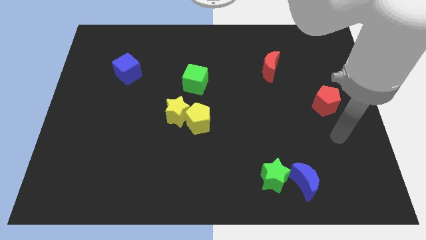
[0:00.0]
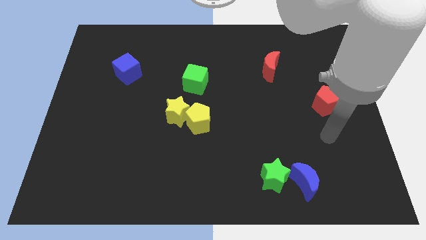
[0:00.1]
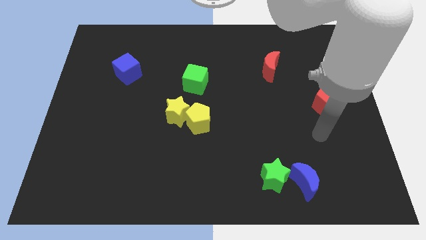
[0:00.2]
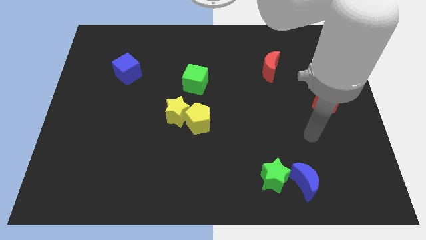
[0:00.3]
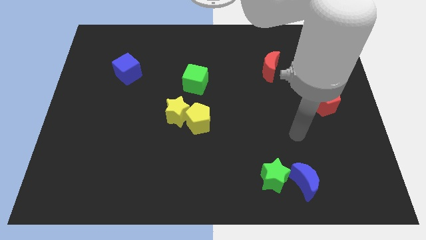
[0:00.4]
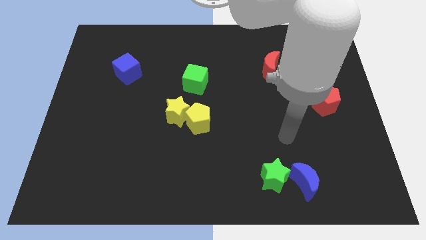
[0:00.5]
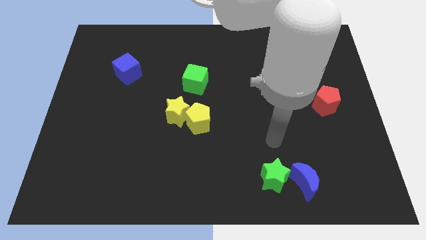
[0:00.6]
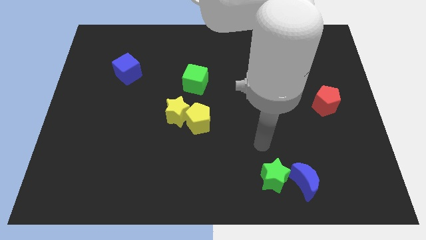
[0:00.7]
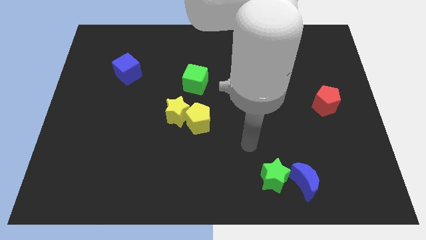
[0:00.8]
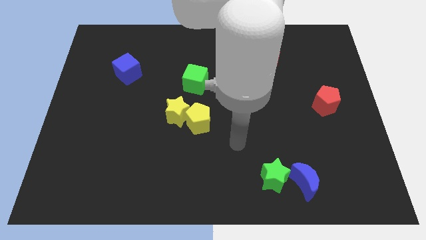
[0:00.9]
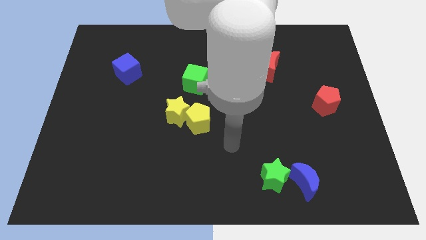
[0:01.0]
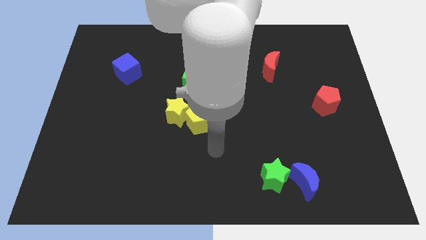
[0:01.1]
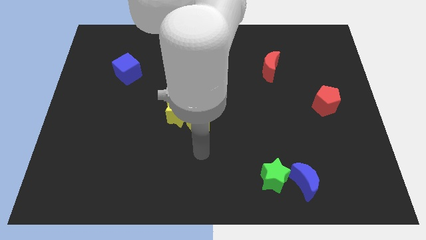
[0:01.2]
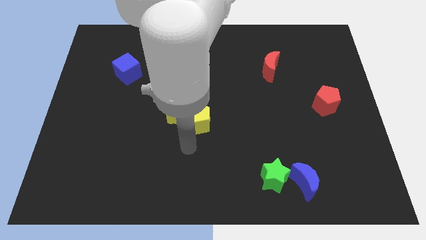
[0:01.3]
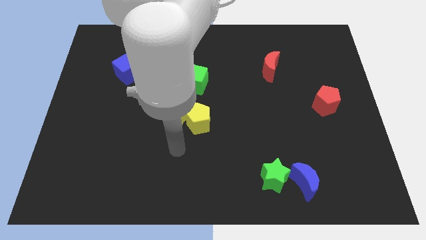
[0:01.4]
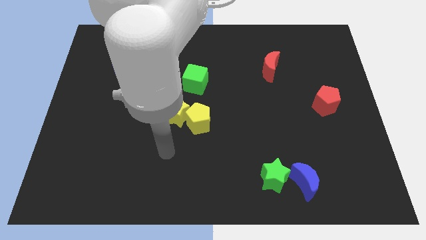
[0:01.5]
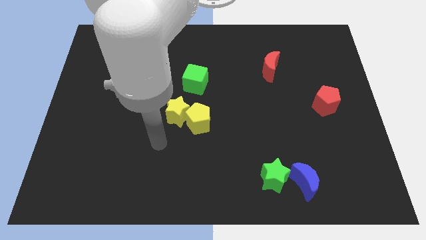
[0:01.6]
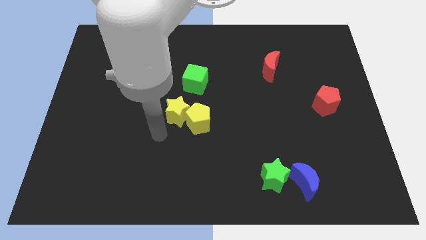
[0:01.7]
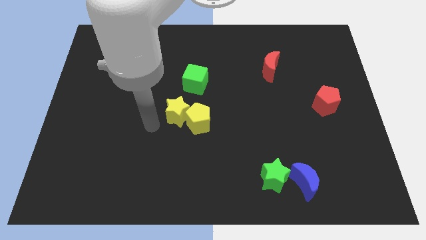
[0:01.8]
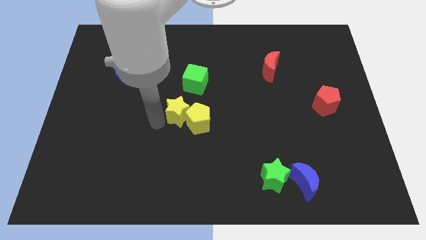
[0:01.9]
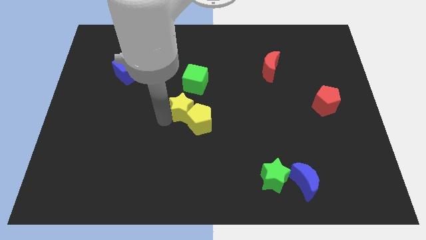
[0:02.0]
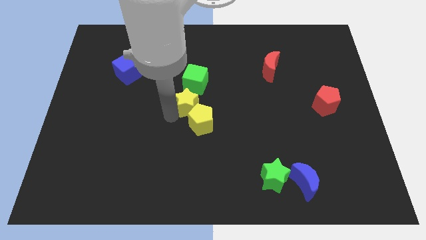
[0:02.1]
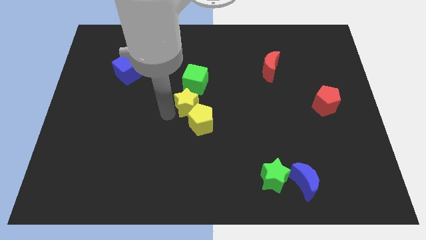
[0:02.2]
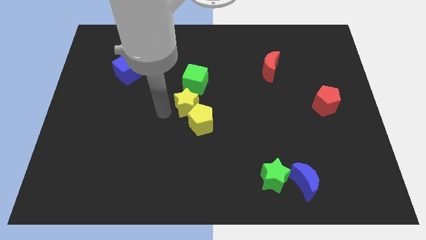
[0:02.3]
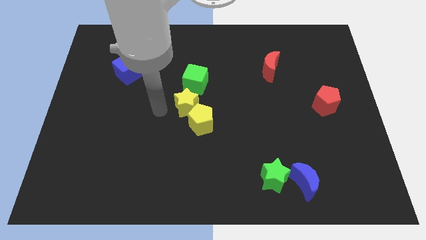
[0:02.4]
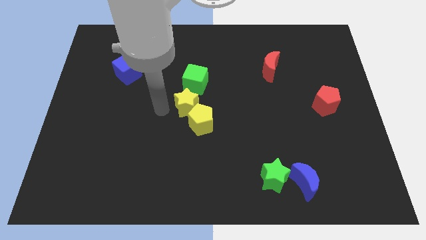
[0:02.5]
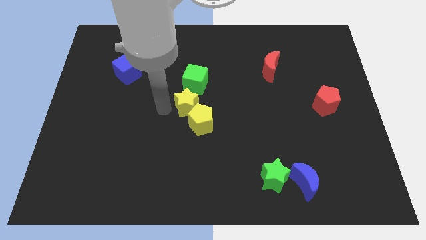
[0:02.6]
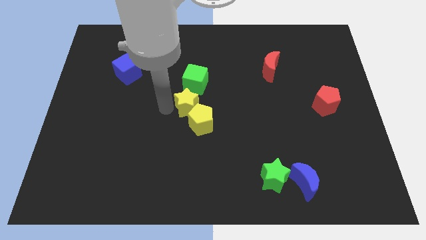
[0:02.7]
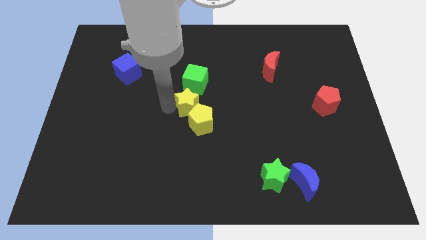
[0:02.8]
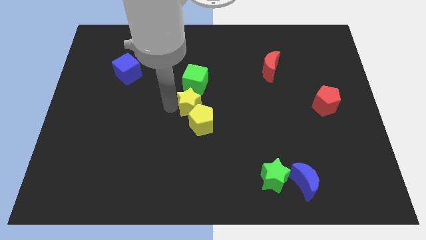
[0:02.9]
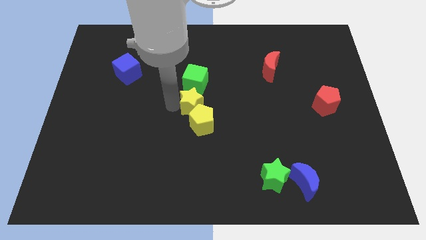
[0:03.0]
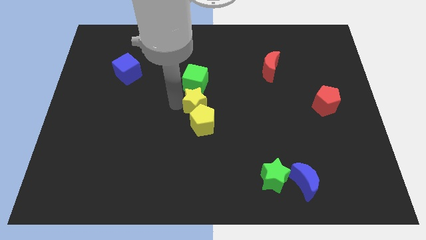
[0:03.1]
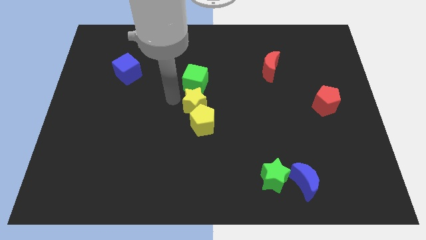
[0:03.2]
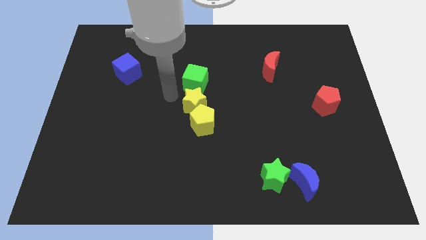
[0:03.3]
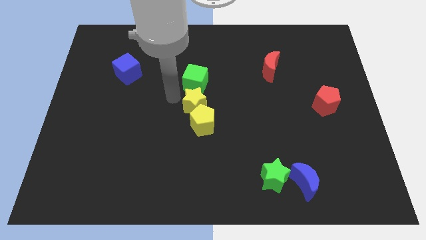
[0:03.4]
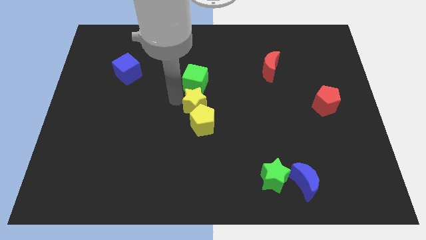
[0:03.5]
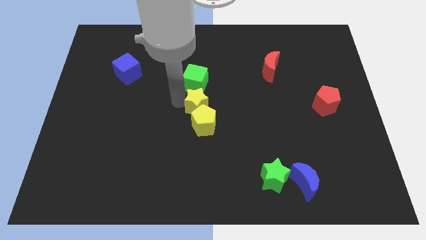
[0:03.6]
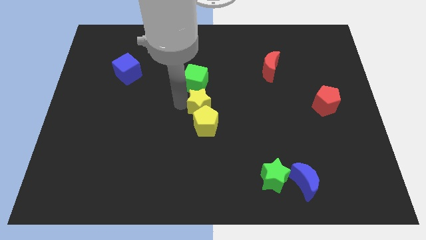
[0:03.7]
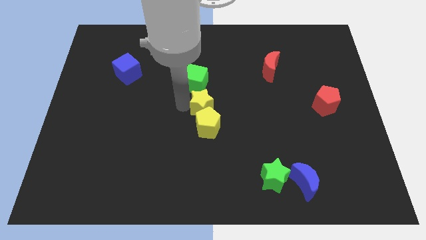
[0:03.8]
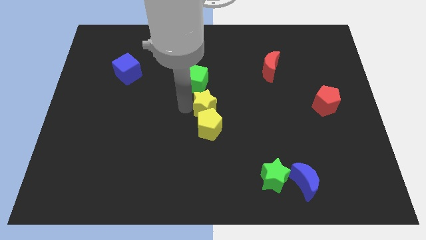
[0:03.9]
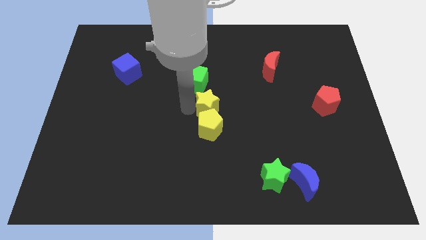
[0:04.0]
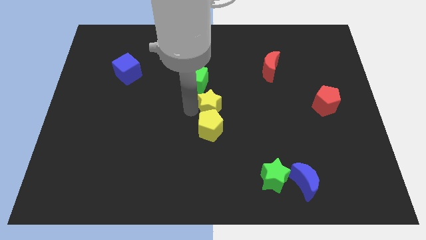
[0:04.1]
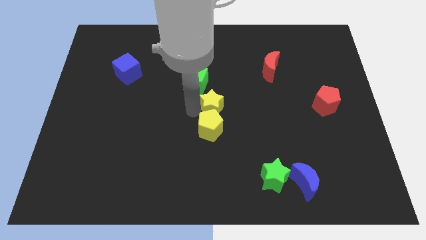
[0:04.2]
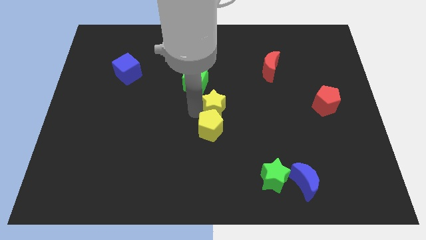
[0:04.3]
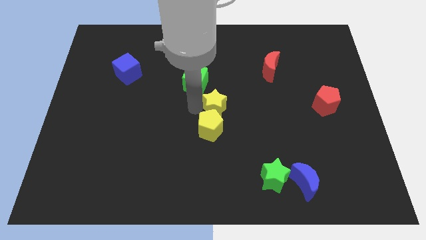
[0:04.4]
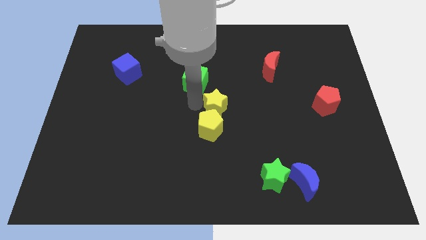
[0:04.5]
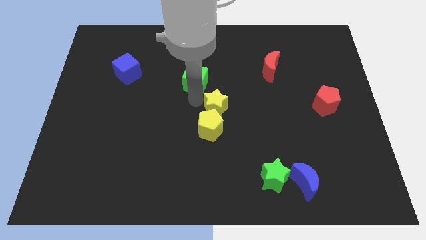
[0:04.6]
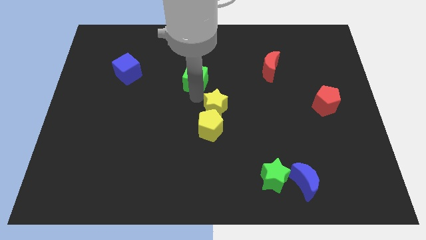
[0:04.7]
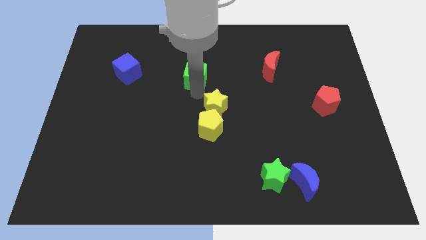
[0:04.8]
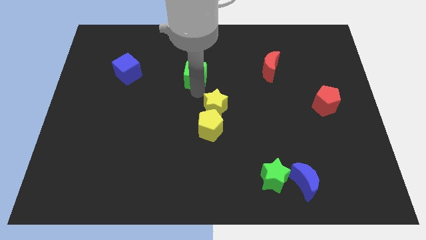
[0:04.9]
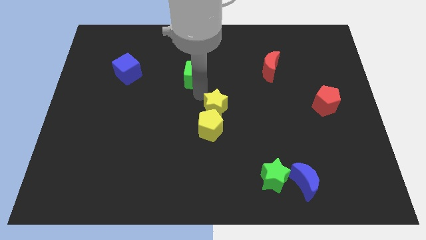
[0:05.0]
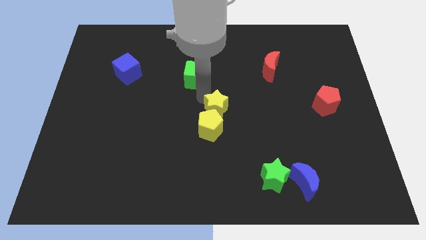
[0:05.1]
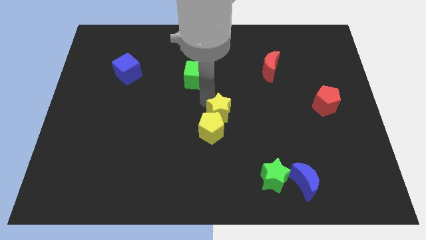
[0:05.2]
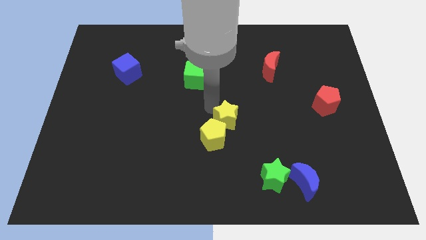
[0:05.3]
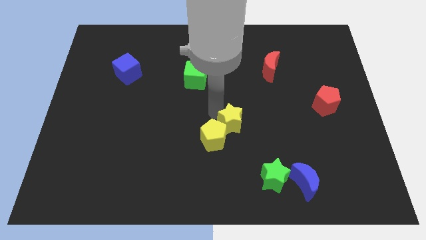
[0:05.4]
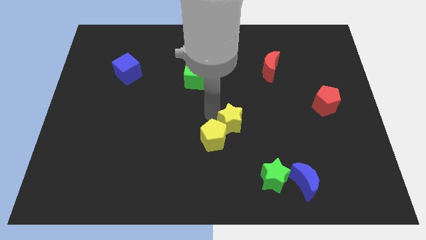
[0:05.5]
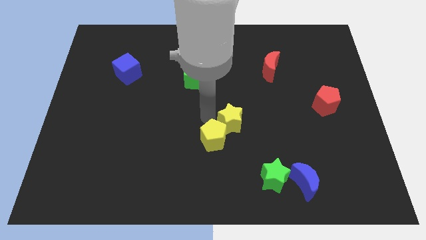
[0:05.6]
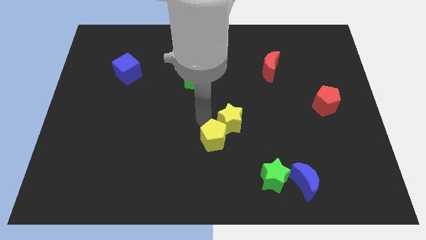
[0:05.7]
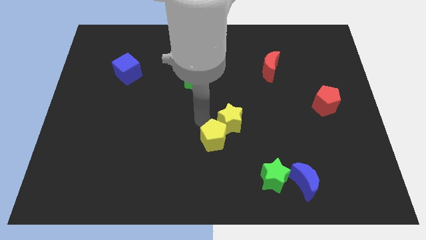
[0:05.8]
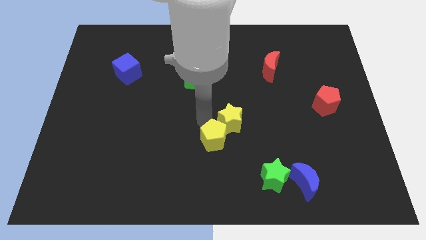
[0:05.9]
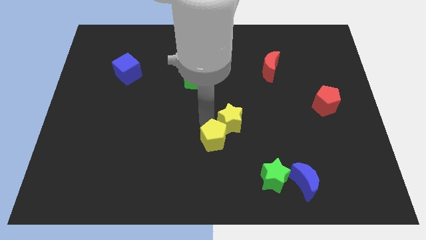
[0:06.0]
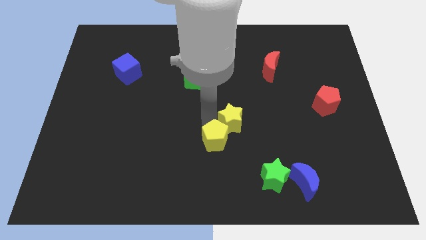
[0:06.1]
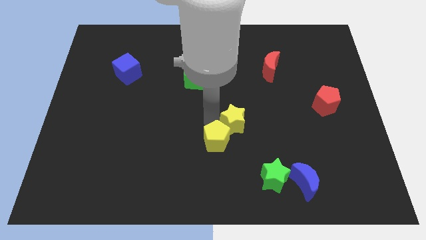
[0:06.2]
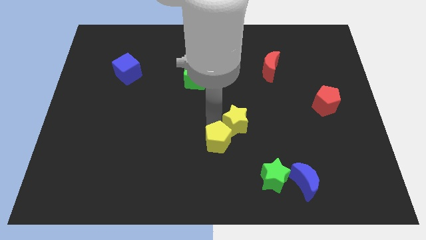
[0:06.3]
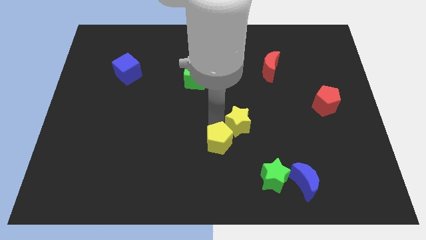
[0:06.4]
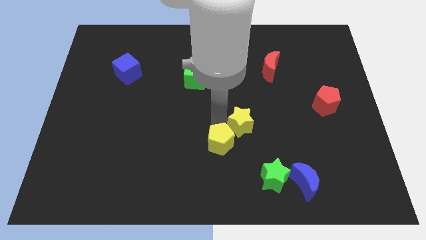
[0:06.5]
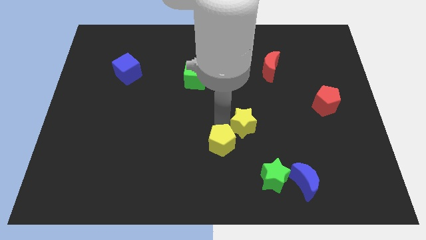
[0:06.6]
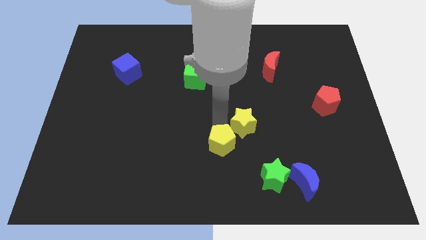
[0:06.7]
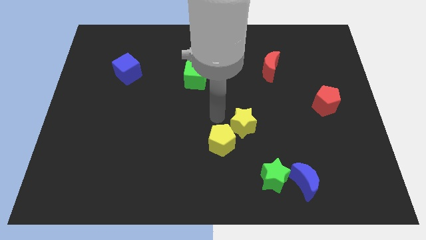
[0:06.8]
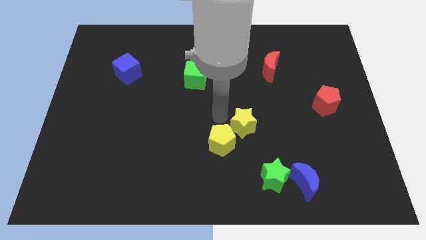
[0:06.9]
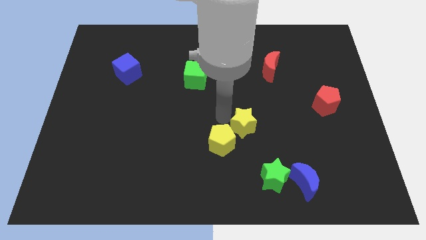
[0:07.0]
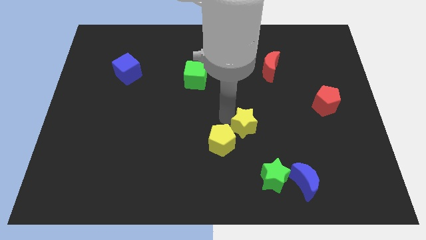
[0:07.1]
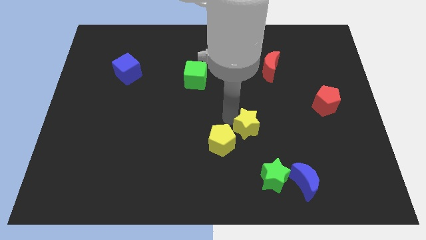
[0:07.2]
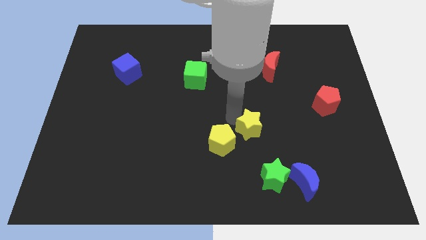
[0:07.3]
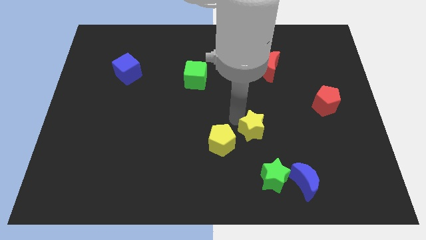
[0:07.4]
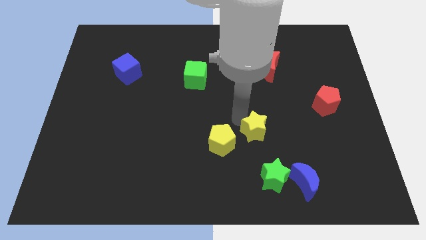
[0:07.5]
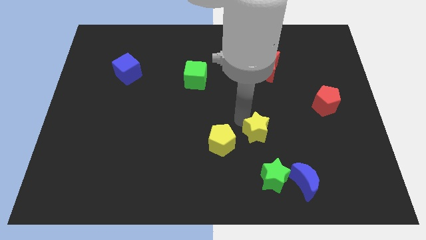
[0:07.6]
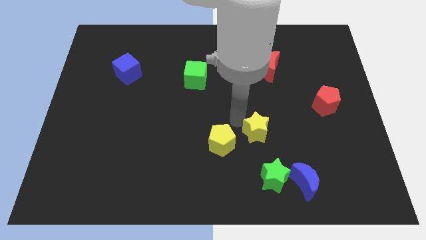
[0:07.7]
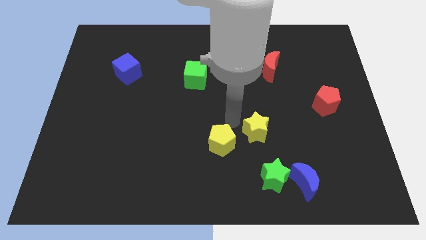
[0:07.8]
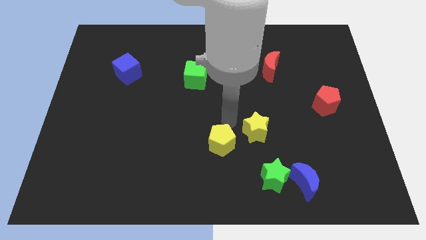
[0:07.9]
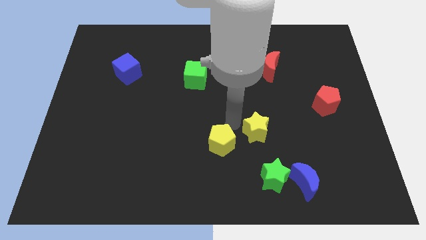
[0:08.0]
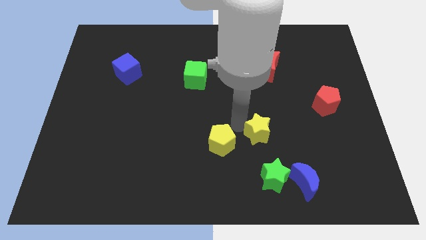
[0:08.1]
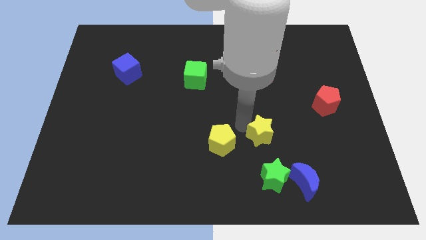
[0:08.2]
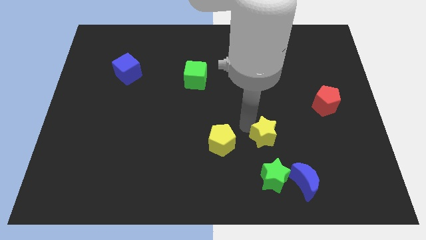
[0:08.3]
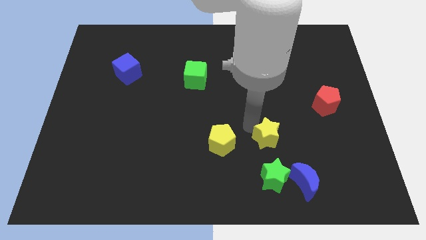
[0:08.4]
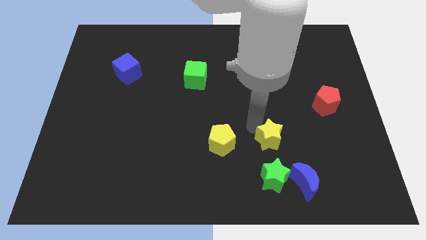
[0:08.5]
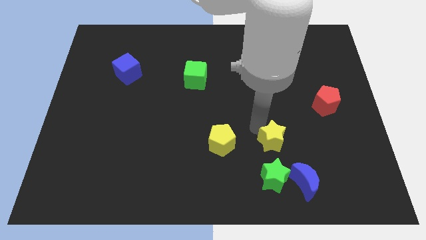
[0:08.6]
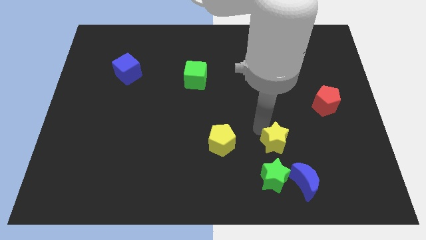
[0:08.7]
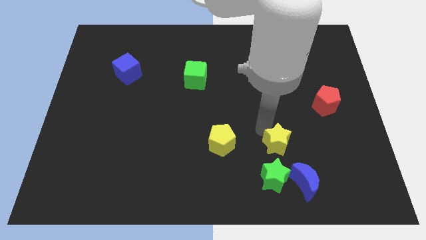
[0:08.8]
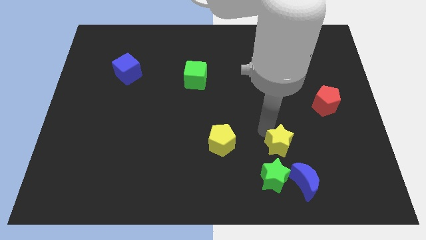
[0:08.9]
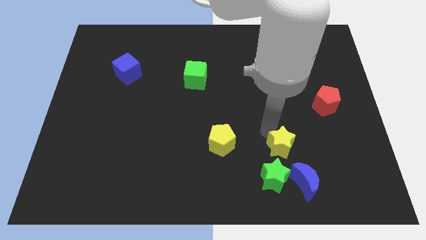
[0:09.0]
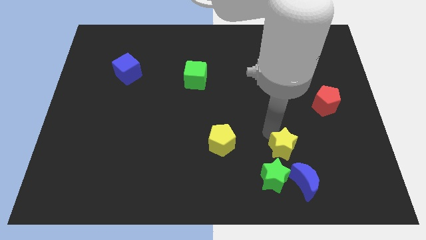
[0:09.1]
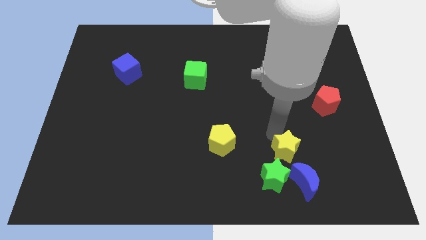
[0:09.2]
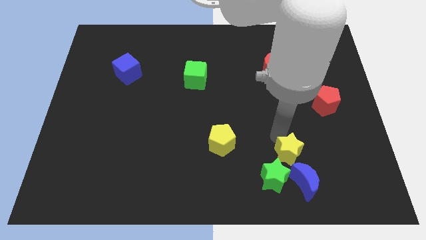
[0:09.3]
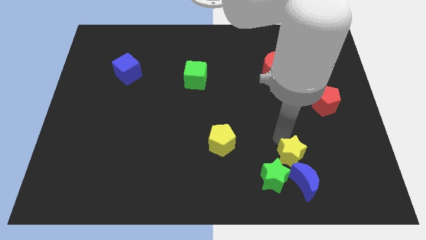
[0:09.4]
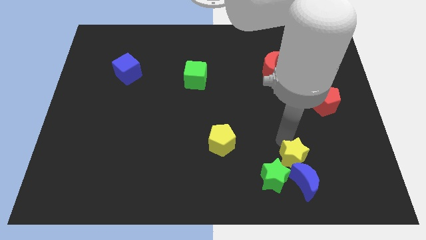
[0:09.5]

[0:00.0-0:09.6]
move the yellow star next to the blue moon
